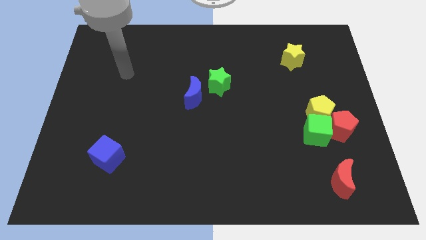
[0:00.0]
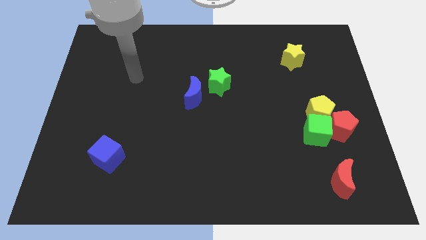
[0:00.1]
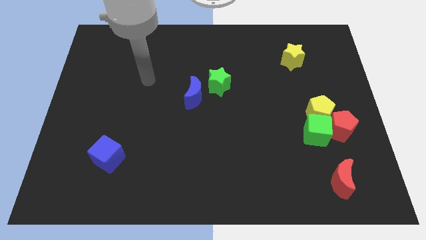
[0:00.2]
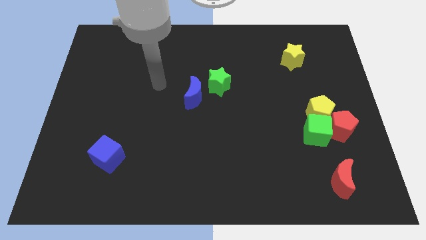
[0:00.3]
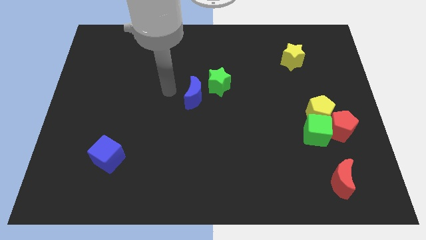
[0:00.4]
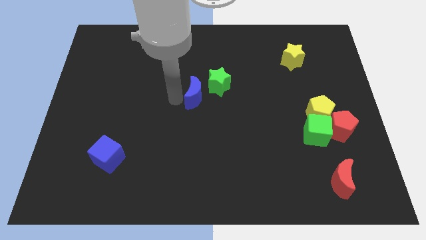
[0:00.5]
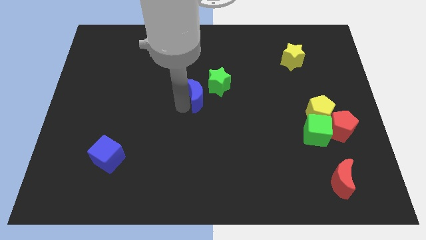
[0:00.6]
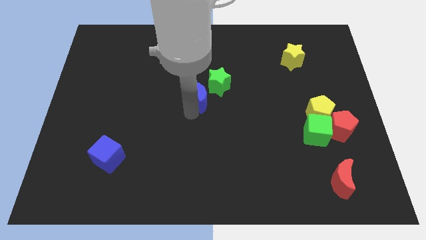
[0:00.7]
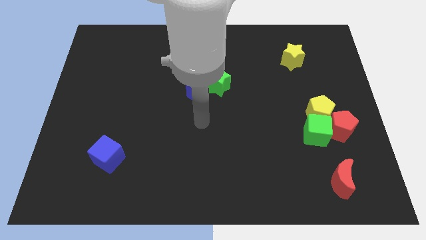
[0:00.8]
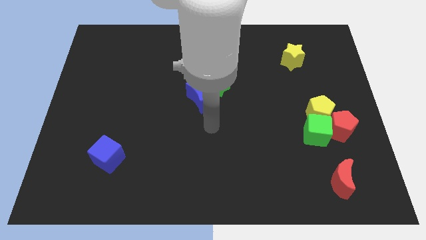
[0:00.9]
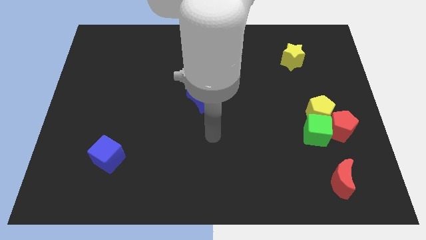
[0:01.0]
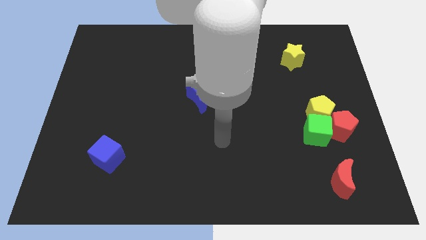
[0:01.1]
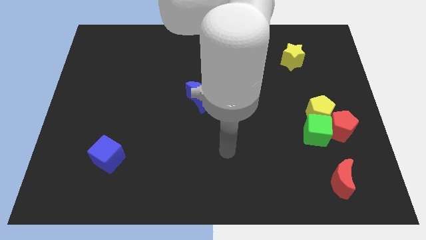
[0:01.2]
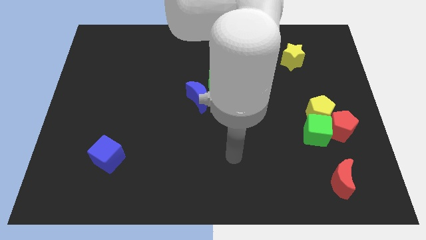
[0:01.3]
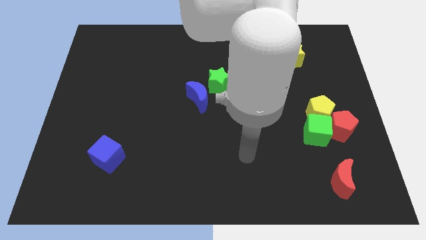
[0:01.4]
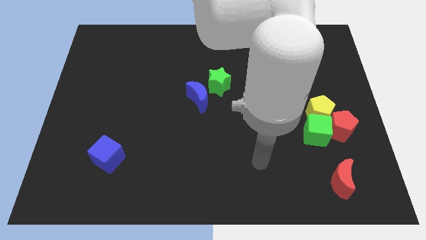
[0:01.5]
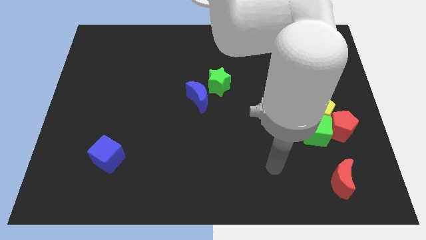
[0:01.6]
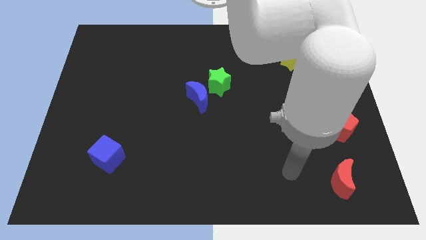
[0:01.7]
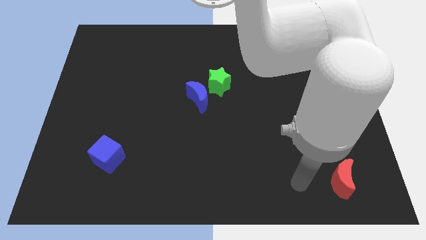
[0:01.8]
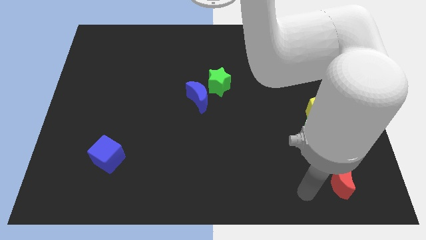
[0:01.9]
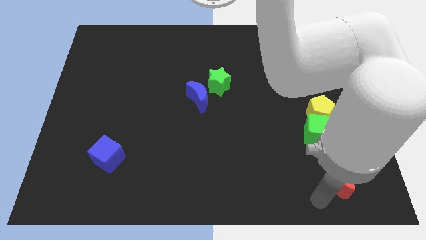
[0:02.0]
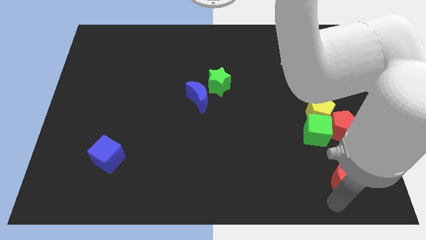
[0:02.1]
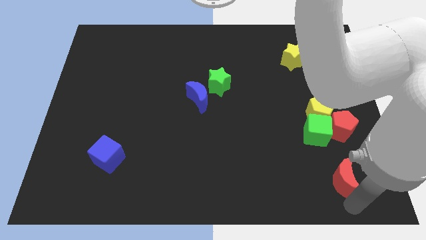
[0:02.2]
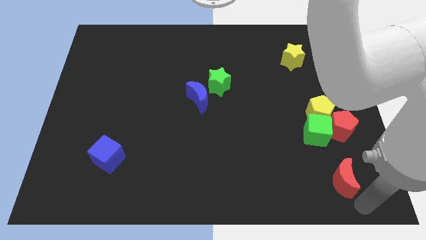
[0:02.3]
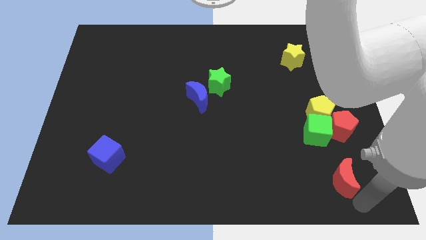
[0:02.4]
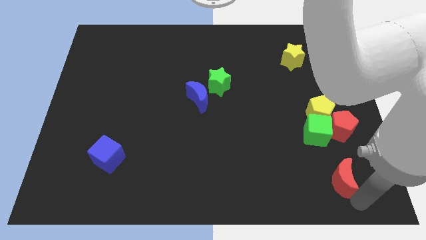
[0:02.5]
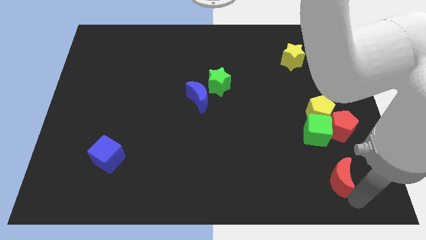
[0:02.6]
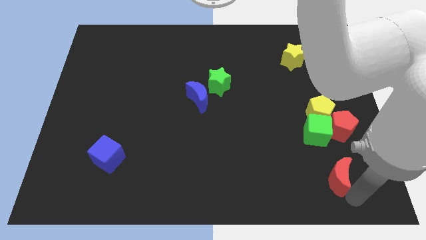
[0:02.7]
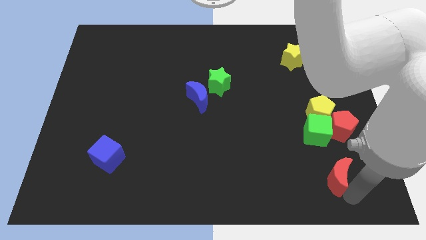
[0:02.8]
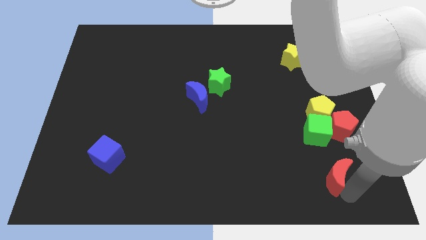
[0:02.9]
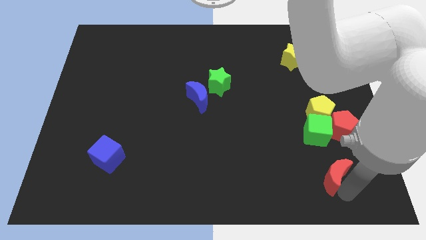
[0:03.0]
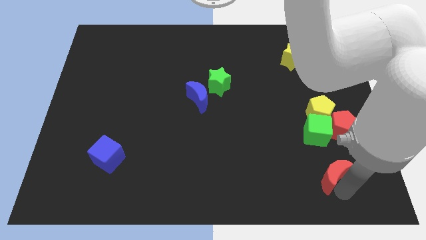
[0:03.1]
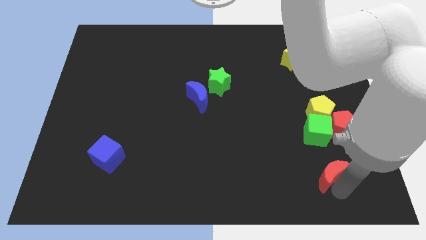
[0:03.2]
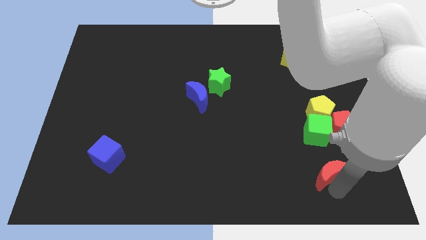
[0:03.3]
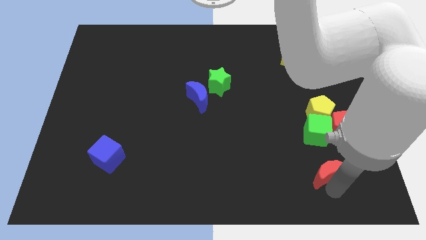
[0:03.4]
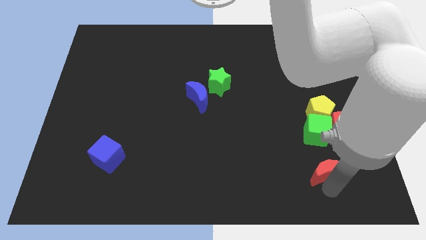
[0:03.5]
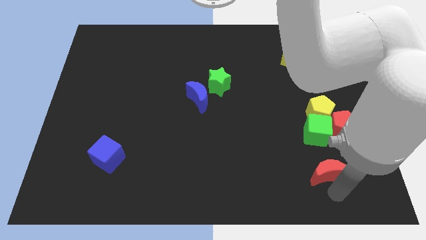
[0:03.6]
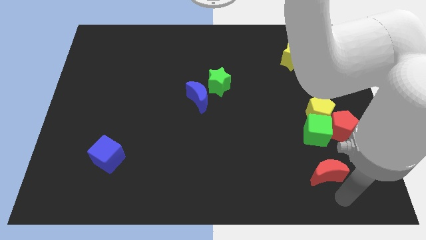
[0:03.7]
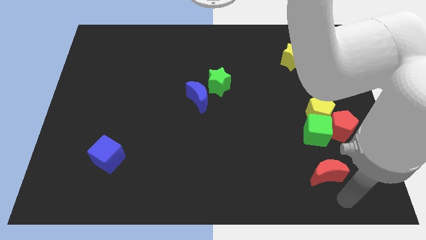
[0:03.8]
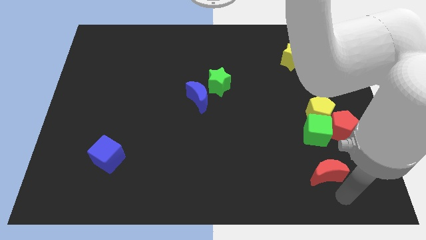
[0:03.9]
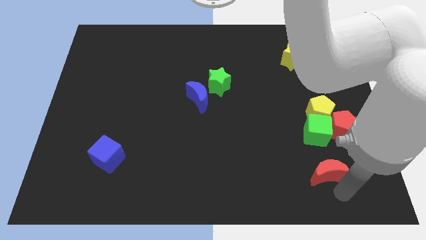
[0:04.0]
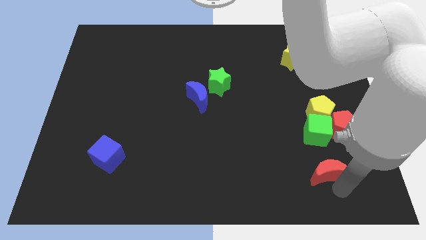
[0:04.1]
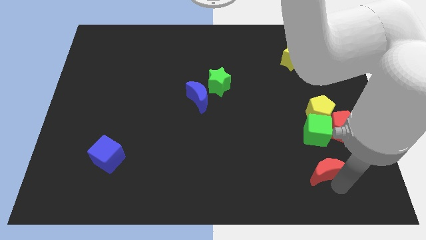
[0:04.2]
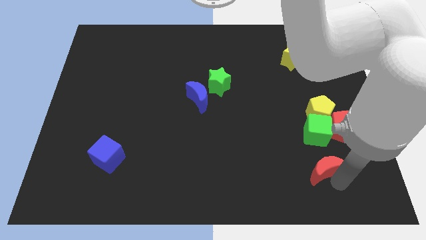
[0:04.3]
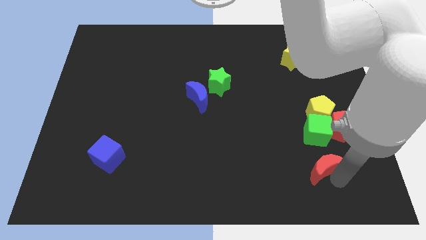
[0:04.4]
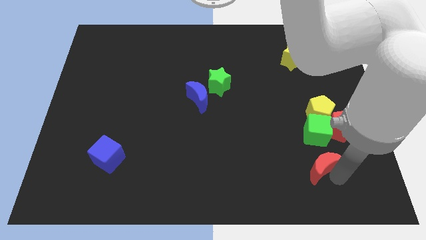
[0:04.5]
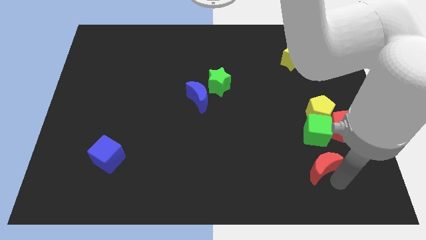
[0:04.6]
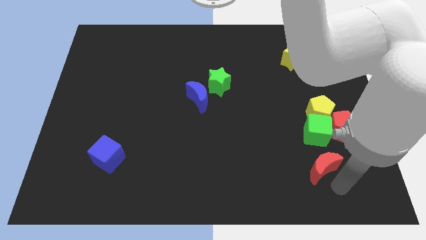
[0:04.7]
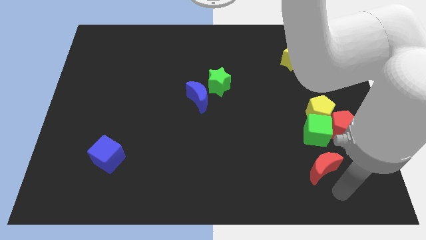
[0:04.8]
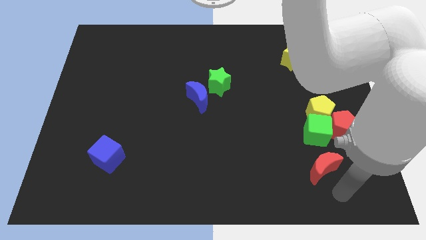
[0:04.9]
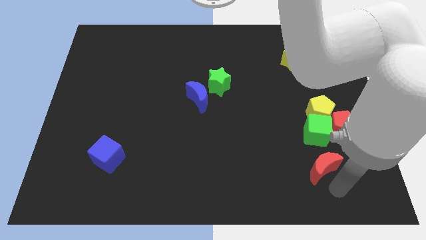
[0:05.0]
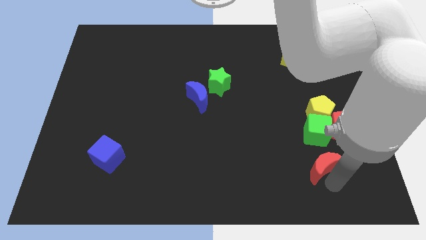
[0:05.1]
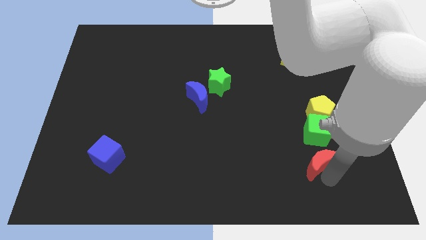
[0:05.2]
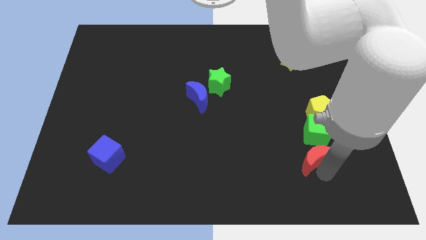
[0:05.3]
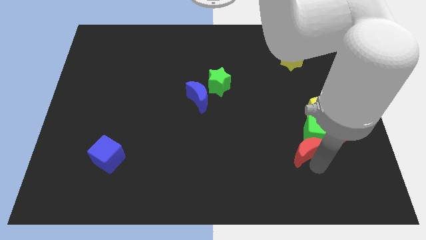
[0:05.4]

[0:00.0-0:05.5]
push the red moon up and to the left somewhat

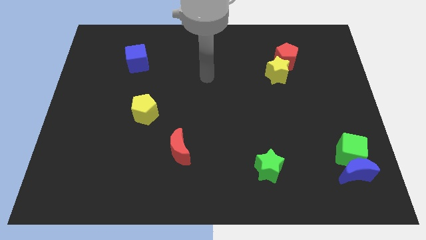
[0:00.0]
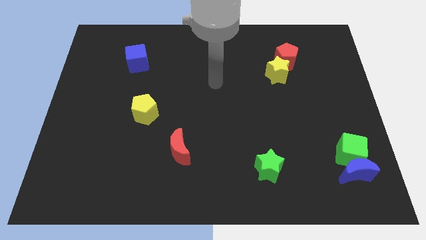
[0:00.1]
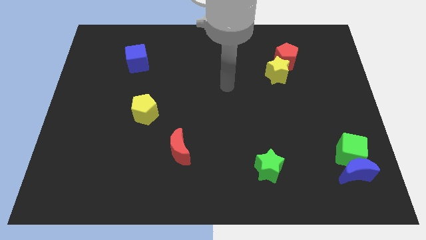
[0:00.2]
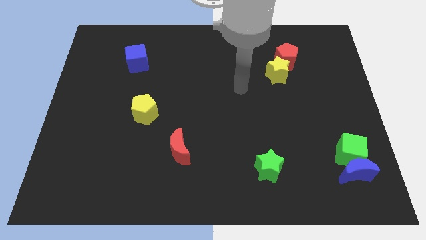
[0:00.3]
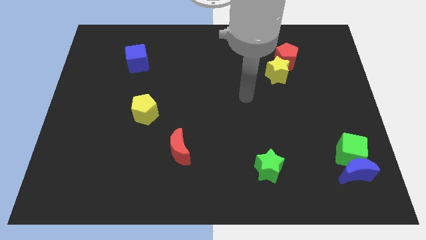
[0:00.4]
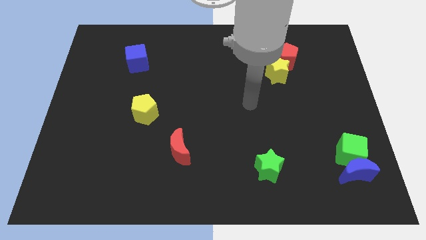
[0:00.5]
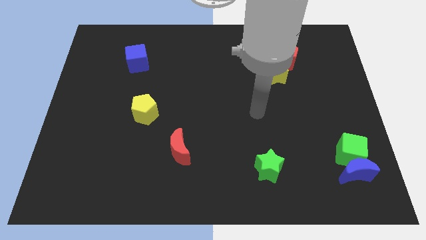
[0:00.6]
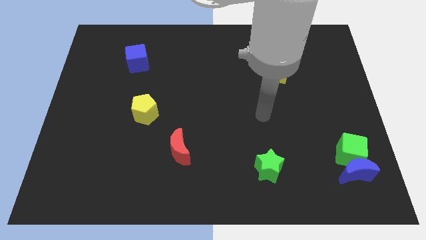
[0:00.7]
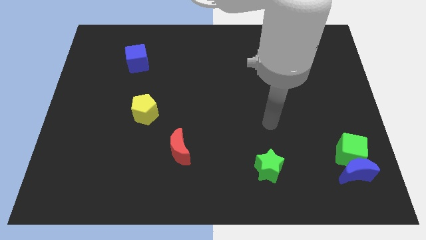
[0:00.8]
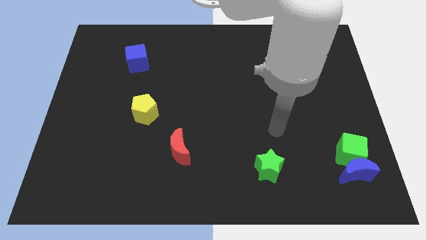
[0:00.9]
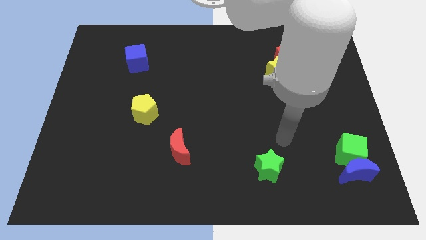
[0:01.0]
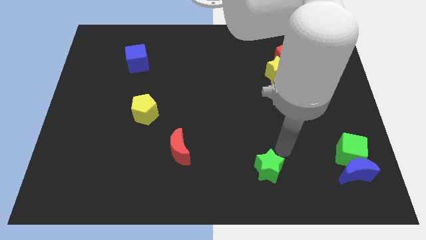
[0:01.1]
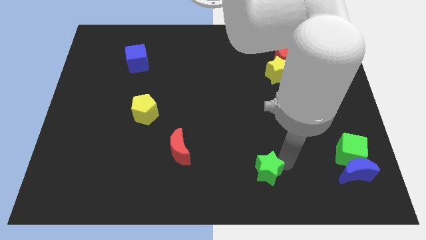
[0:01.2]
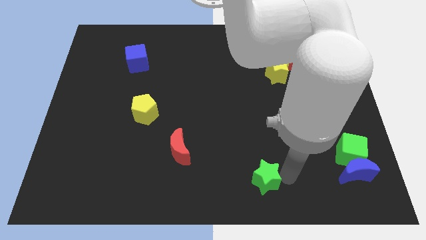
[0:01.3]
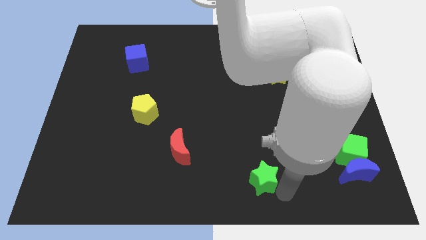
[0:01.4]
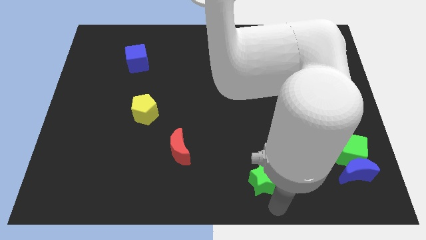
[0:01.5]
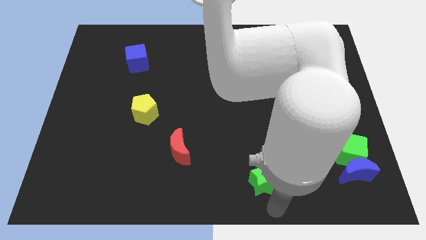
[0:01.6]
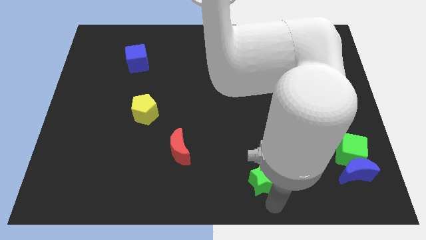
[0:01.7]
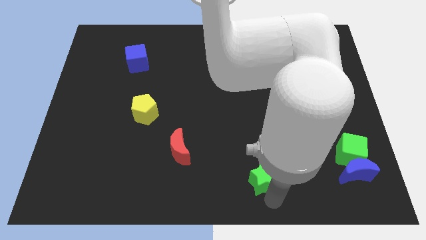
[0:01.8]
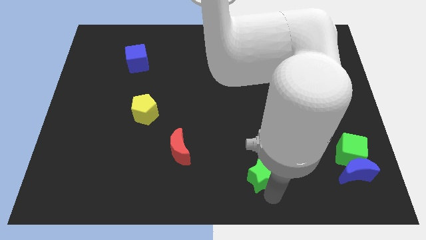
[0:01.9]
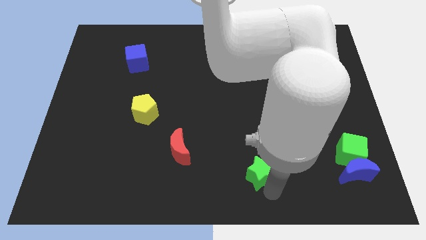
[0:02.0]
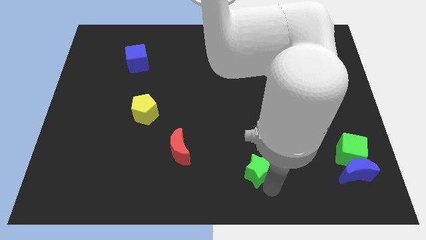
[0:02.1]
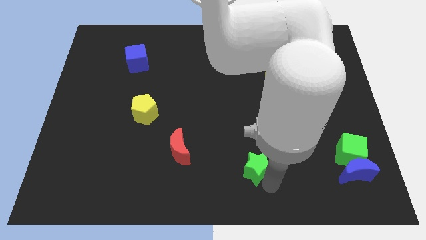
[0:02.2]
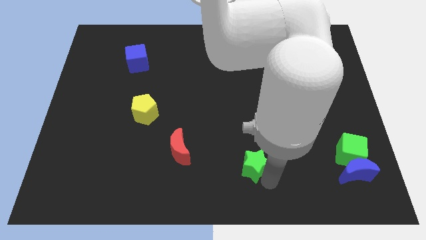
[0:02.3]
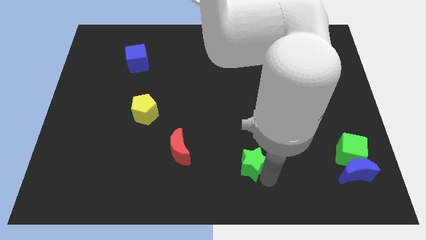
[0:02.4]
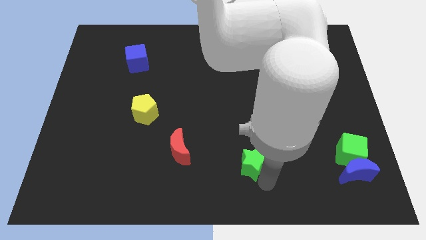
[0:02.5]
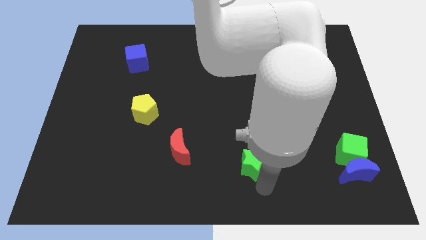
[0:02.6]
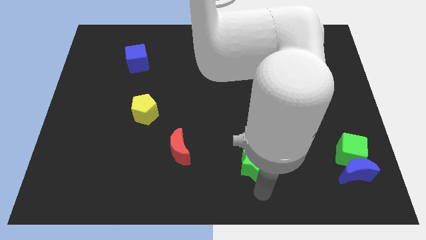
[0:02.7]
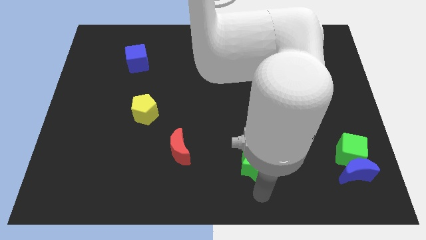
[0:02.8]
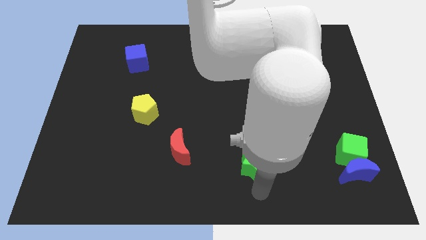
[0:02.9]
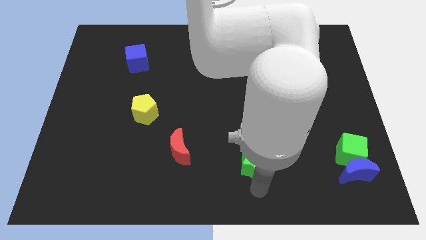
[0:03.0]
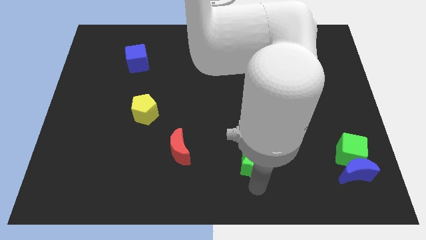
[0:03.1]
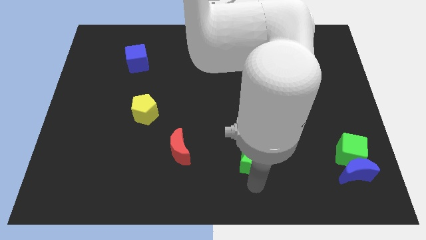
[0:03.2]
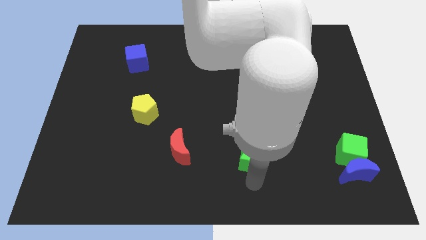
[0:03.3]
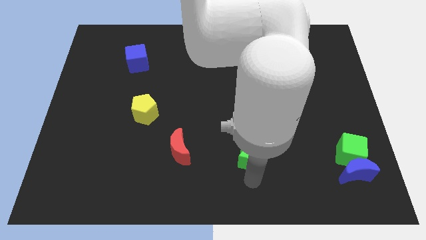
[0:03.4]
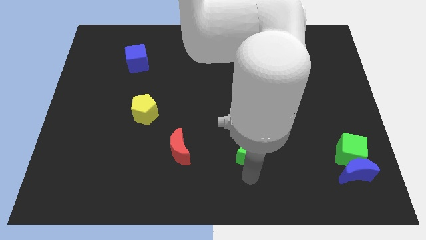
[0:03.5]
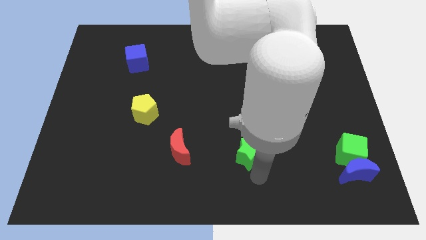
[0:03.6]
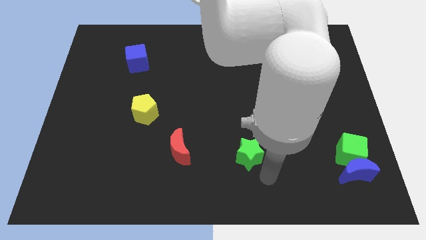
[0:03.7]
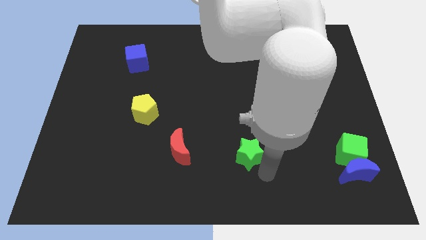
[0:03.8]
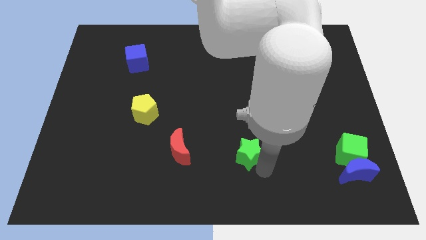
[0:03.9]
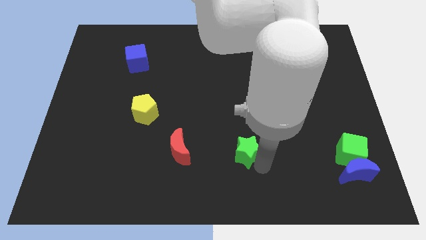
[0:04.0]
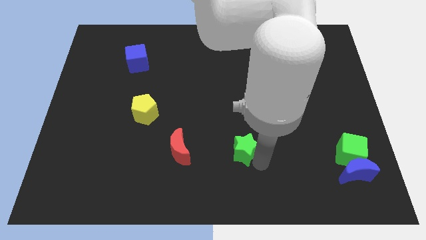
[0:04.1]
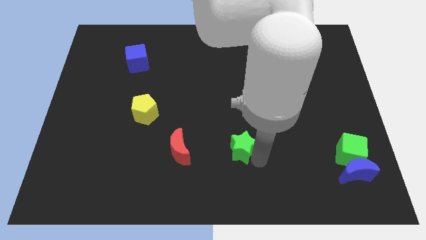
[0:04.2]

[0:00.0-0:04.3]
move the green star somewhat upwards and left diagonally
